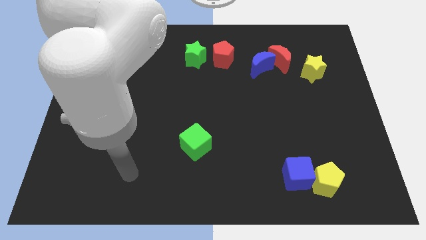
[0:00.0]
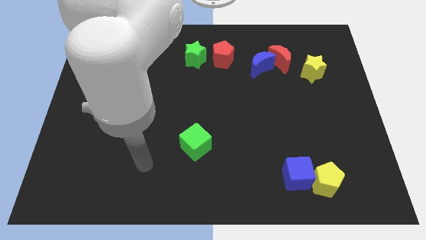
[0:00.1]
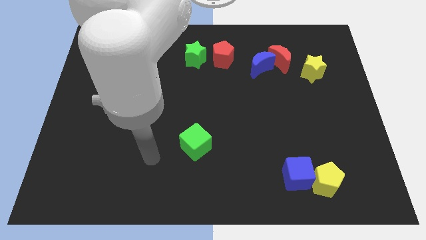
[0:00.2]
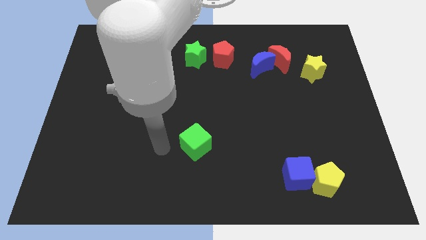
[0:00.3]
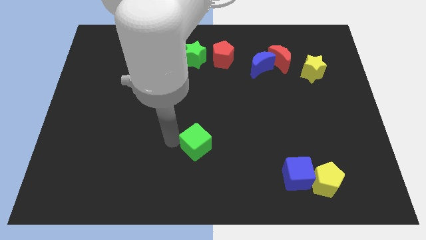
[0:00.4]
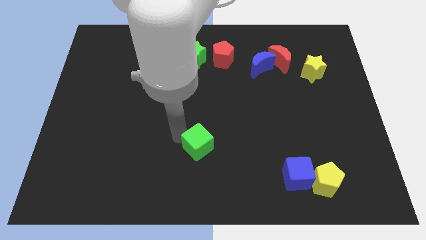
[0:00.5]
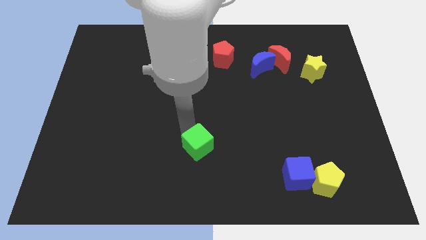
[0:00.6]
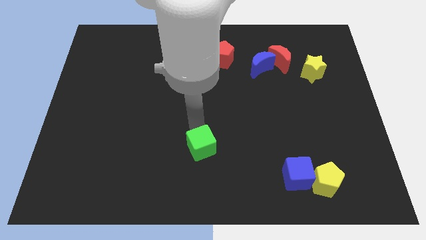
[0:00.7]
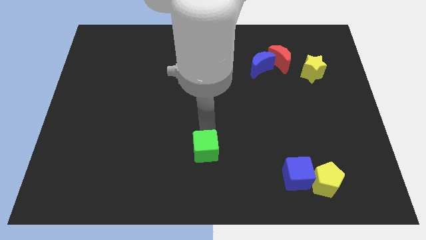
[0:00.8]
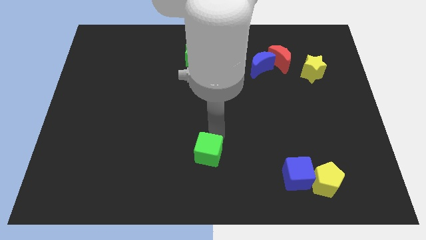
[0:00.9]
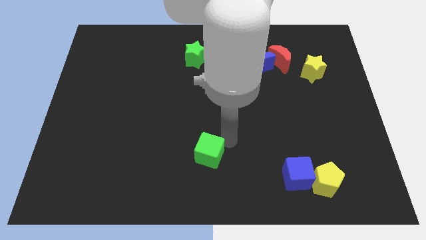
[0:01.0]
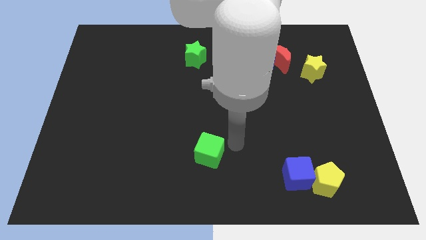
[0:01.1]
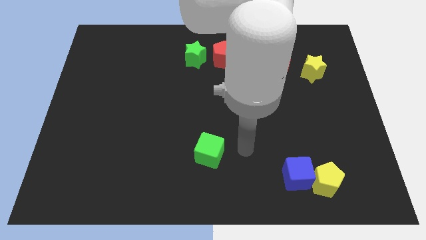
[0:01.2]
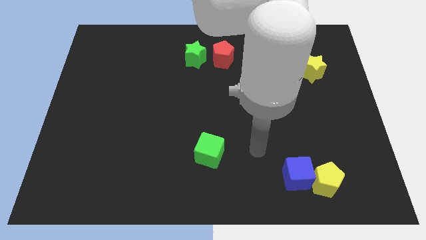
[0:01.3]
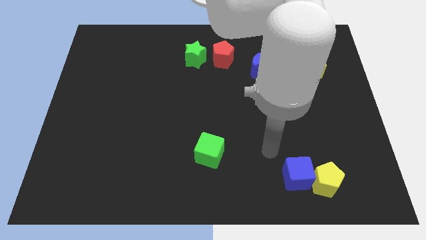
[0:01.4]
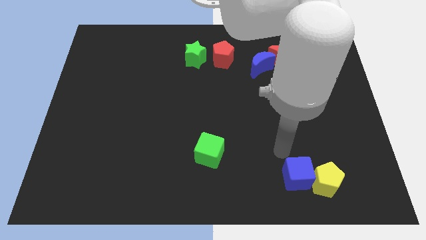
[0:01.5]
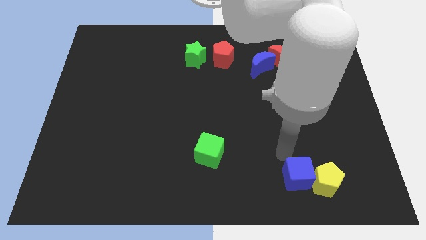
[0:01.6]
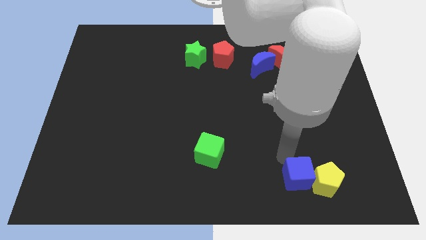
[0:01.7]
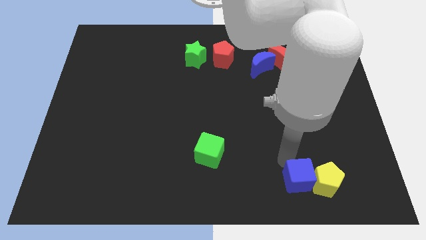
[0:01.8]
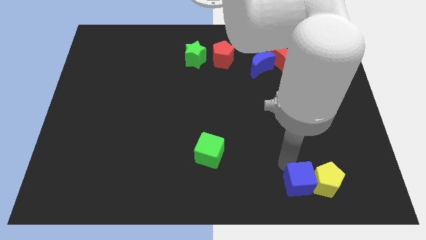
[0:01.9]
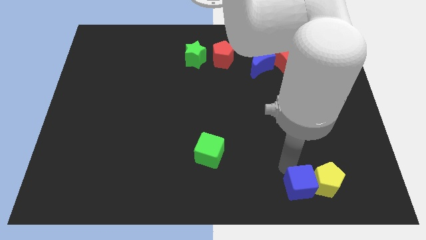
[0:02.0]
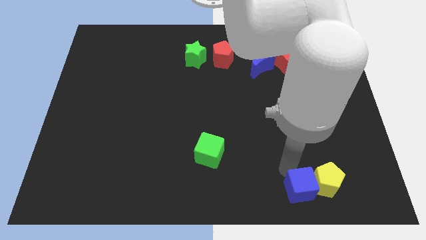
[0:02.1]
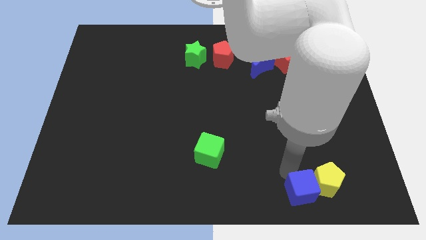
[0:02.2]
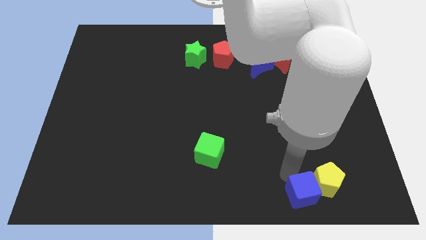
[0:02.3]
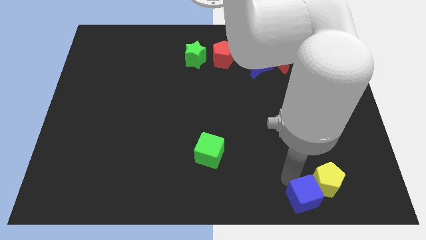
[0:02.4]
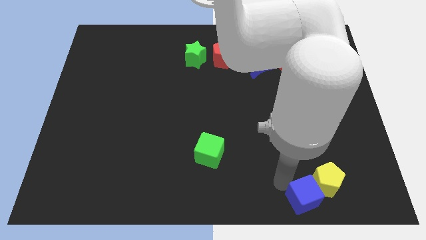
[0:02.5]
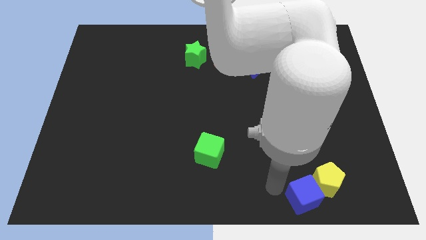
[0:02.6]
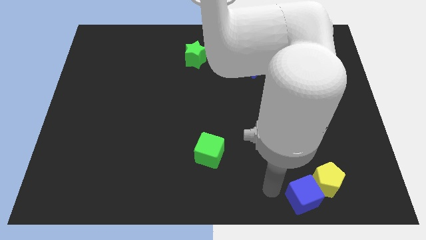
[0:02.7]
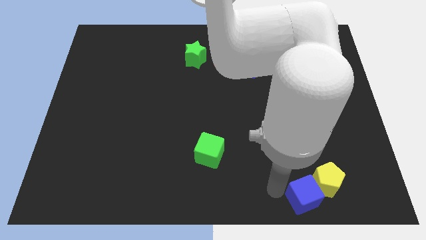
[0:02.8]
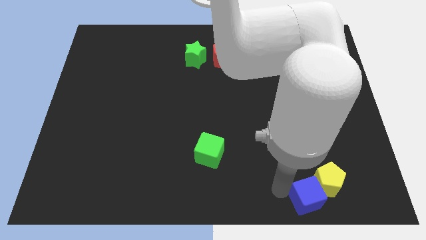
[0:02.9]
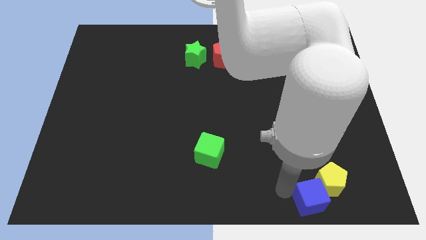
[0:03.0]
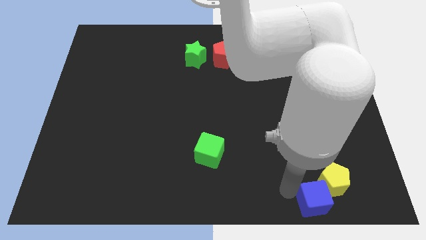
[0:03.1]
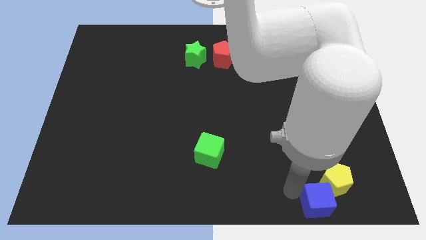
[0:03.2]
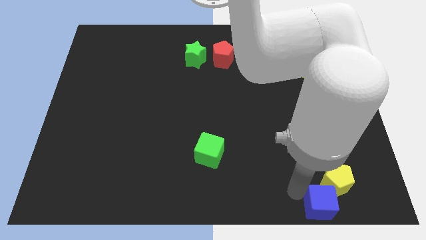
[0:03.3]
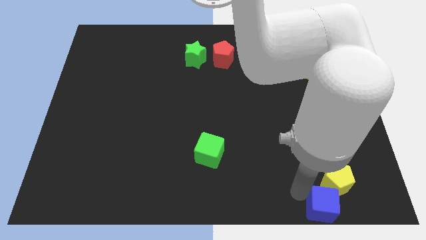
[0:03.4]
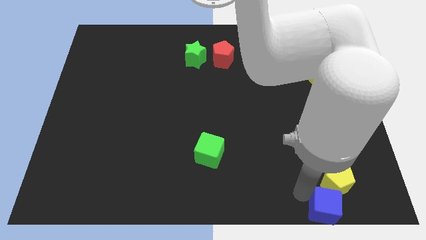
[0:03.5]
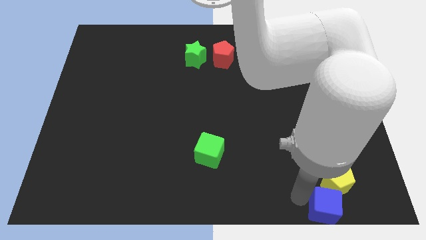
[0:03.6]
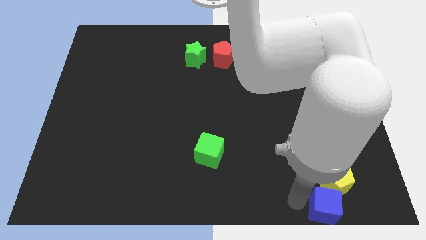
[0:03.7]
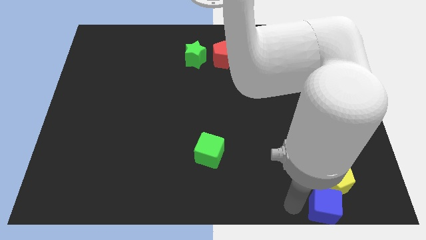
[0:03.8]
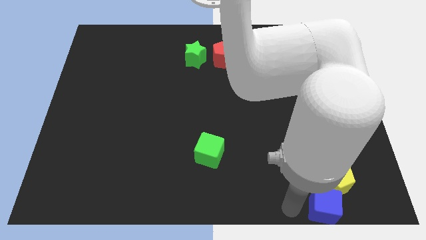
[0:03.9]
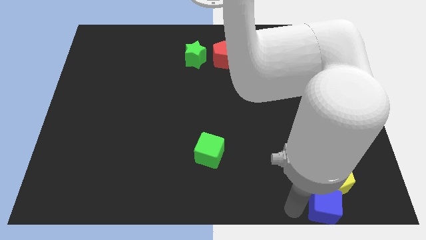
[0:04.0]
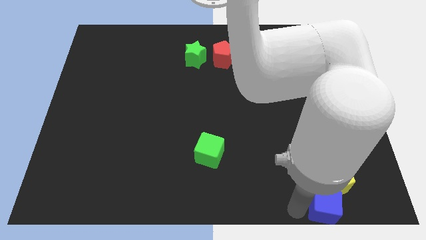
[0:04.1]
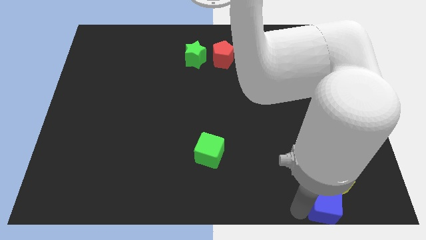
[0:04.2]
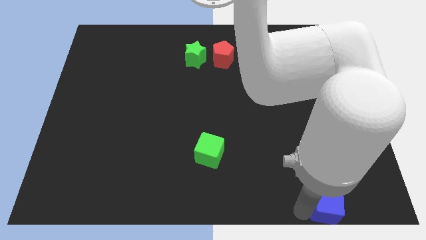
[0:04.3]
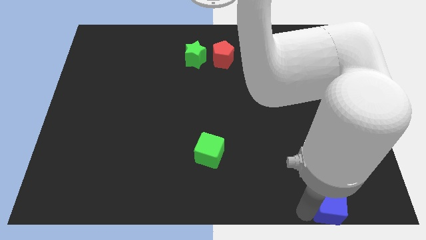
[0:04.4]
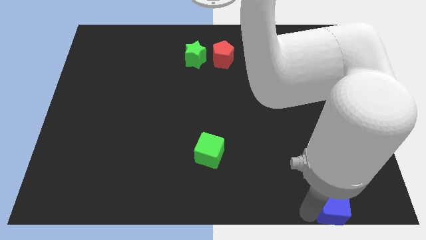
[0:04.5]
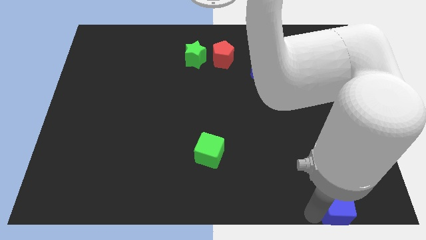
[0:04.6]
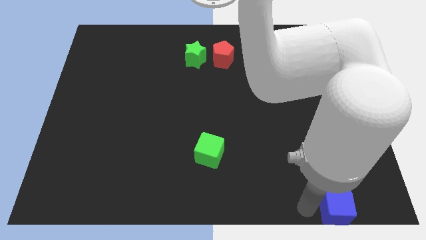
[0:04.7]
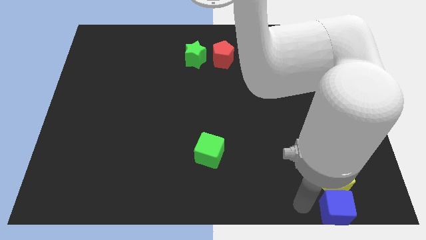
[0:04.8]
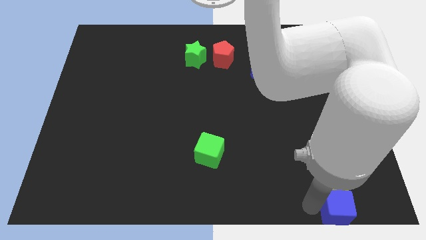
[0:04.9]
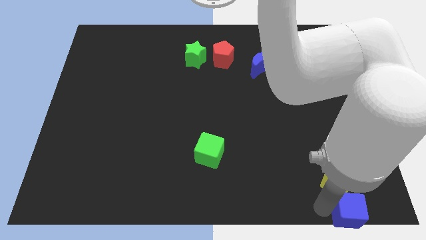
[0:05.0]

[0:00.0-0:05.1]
move the blue cube to the bottom right of the board

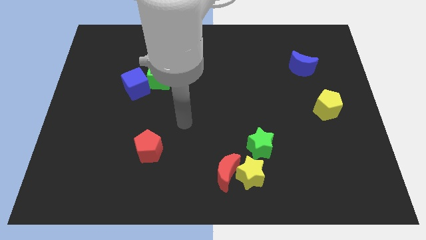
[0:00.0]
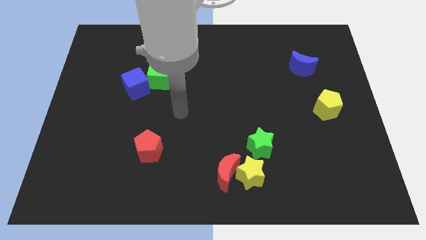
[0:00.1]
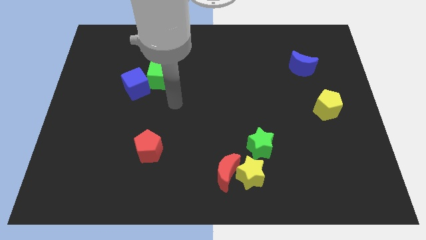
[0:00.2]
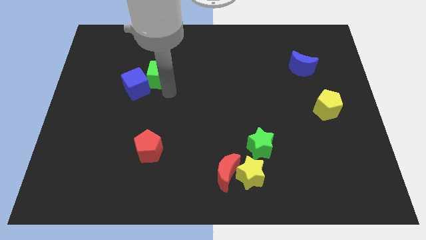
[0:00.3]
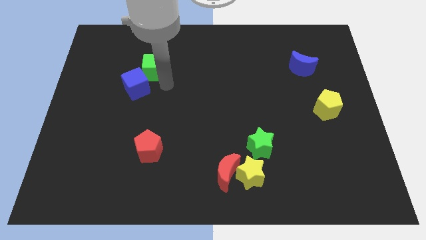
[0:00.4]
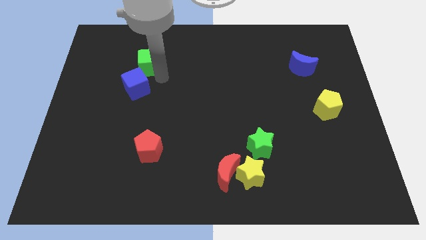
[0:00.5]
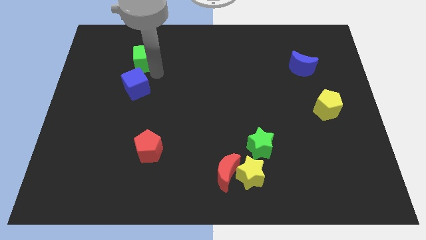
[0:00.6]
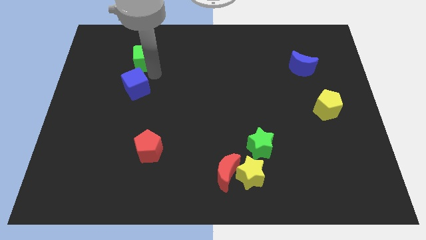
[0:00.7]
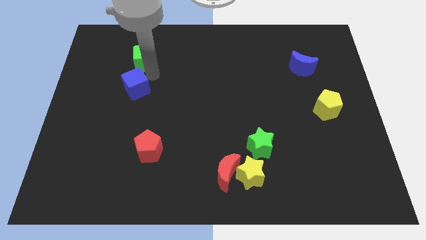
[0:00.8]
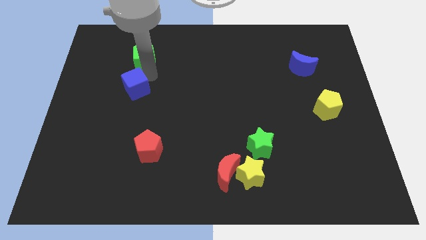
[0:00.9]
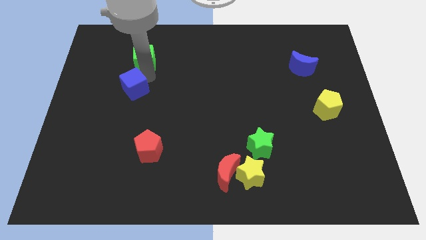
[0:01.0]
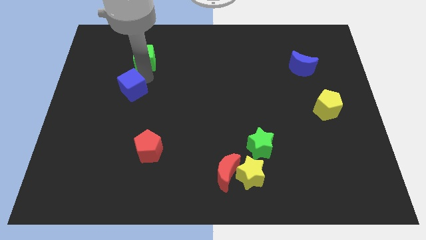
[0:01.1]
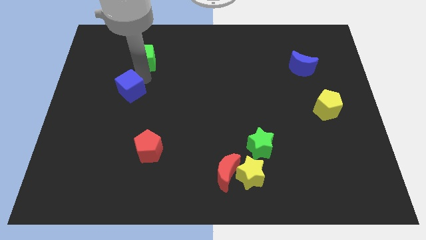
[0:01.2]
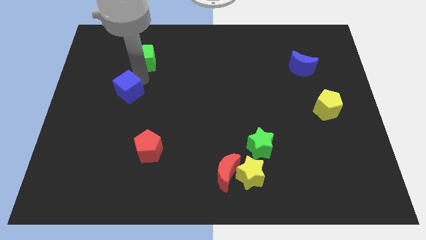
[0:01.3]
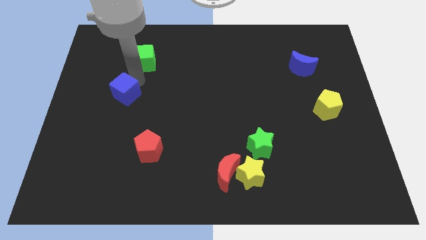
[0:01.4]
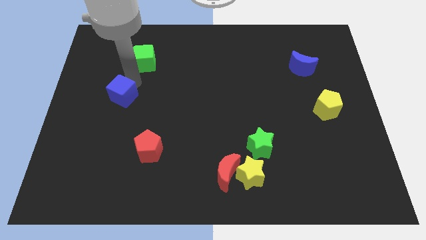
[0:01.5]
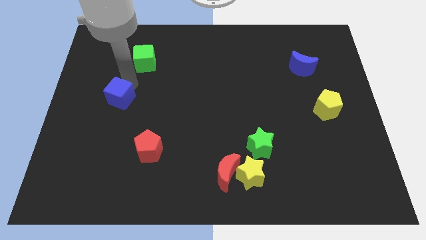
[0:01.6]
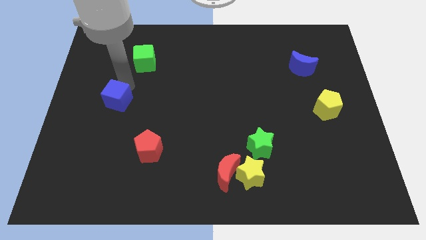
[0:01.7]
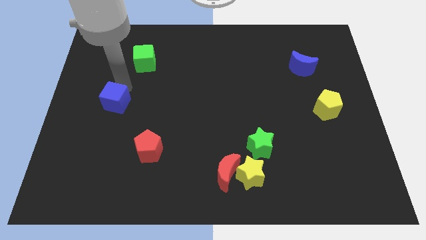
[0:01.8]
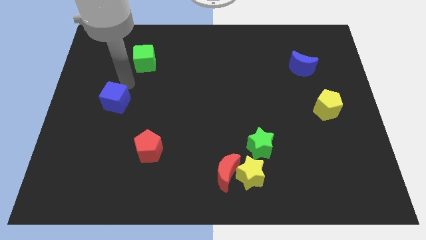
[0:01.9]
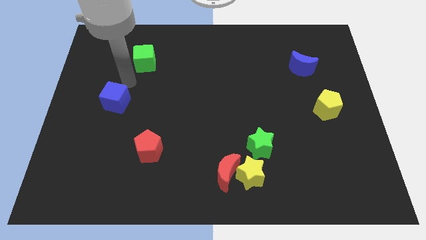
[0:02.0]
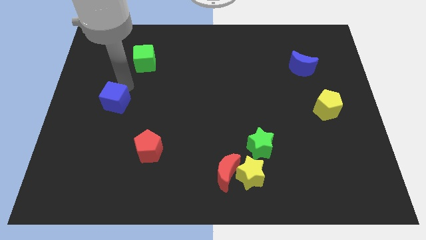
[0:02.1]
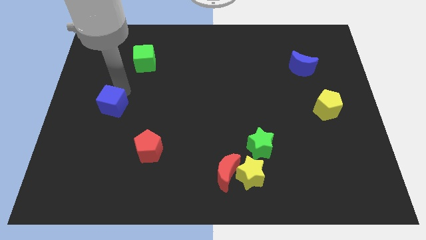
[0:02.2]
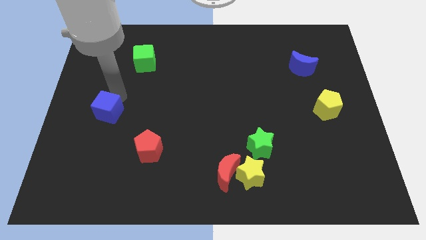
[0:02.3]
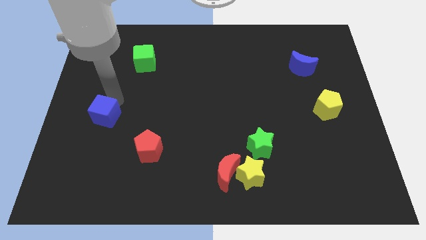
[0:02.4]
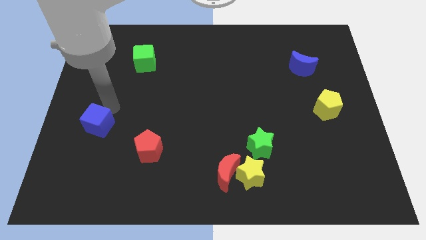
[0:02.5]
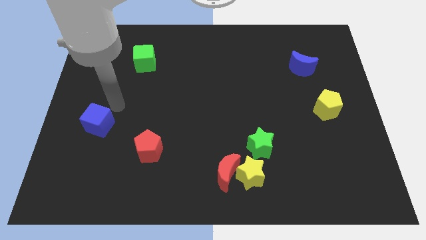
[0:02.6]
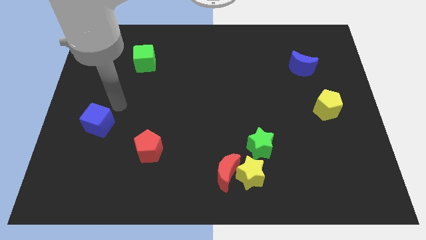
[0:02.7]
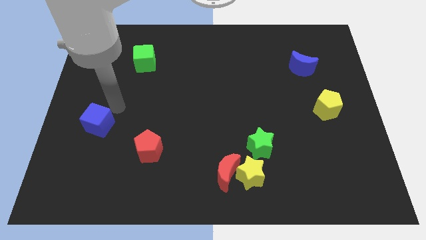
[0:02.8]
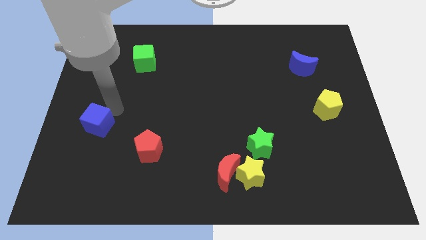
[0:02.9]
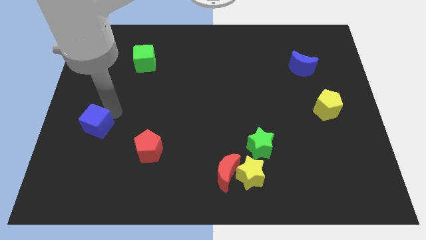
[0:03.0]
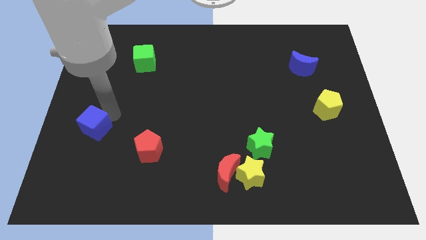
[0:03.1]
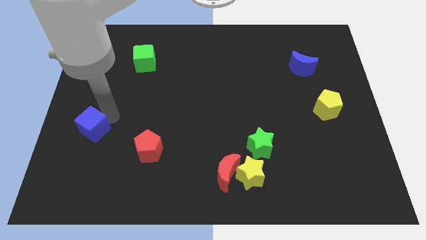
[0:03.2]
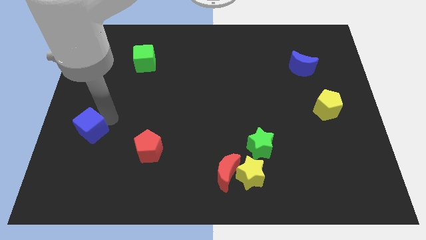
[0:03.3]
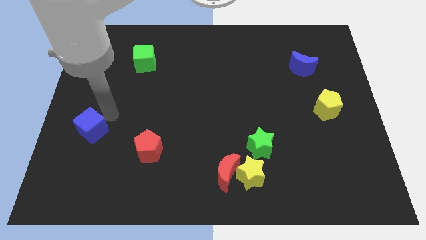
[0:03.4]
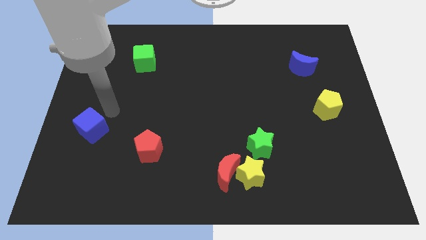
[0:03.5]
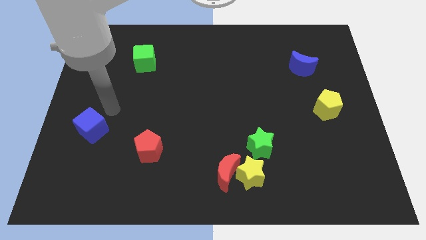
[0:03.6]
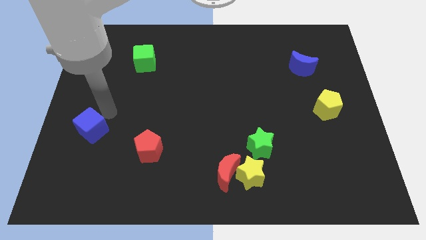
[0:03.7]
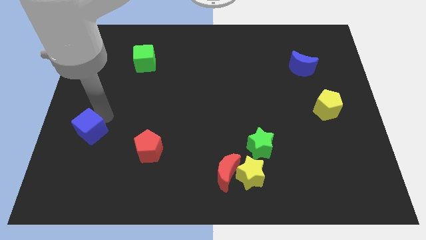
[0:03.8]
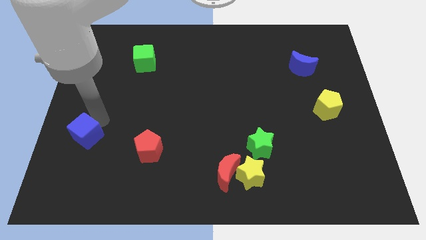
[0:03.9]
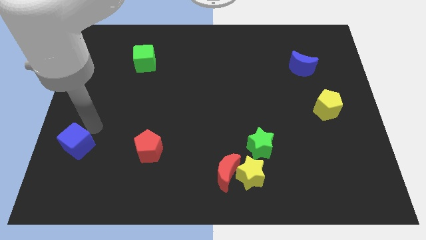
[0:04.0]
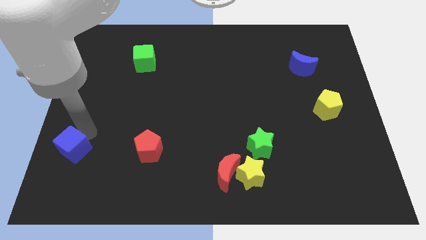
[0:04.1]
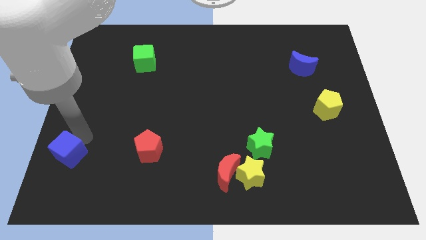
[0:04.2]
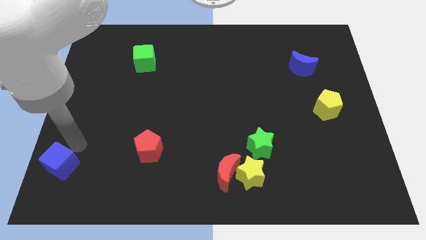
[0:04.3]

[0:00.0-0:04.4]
push the blue cube to the bottom left corner
